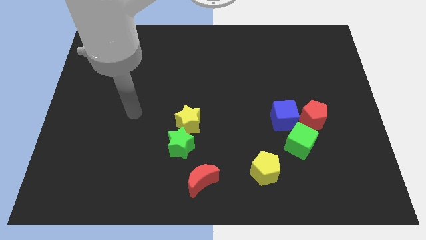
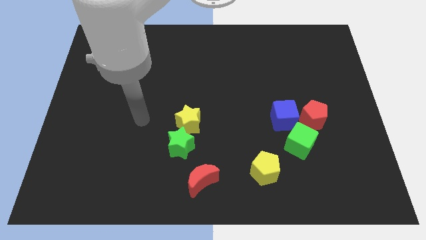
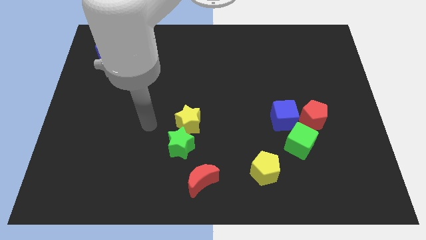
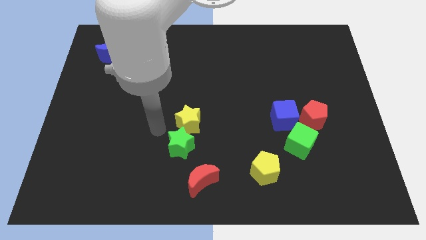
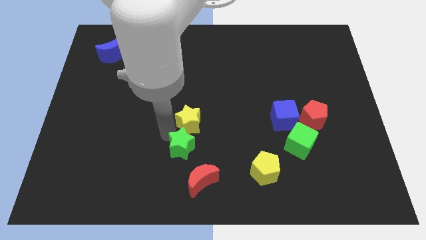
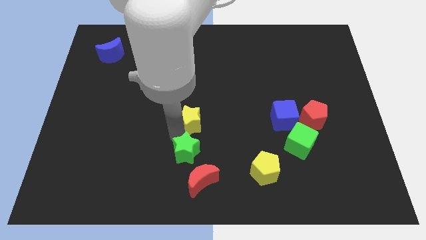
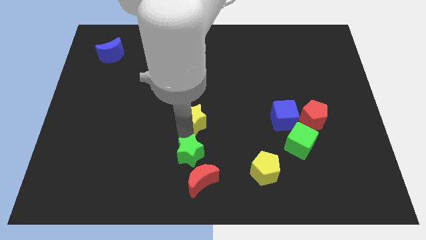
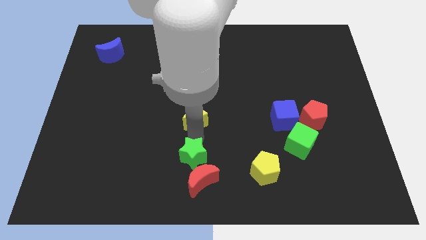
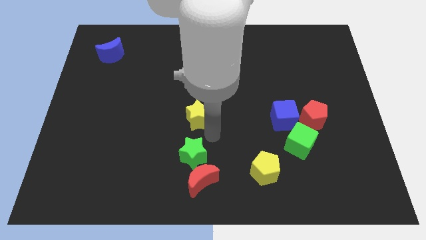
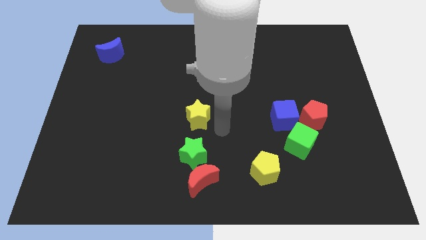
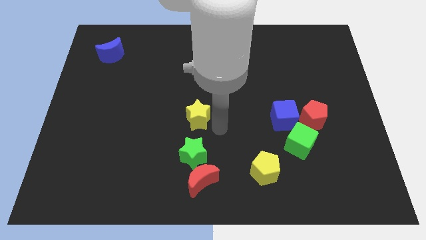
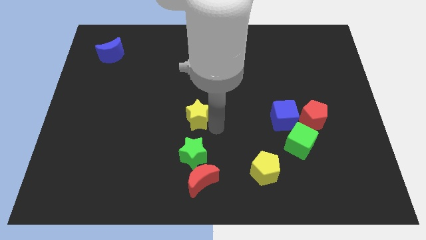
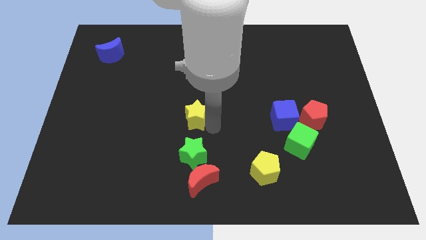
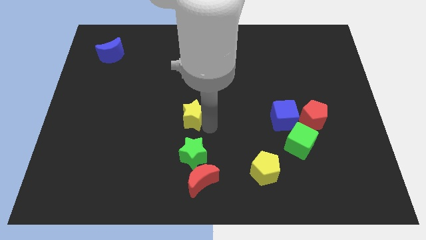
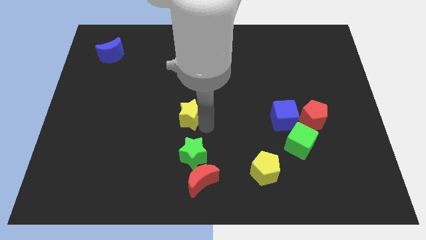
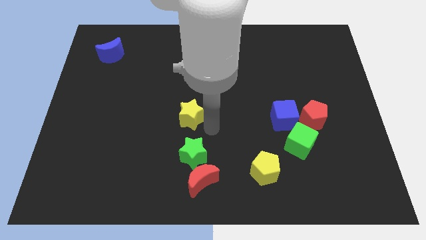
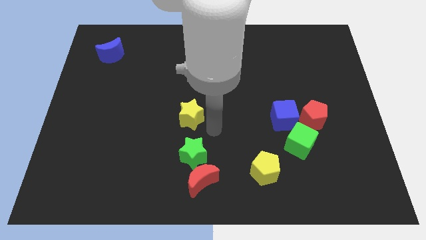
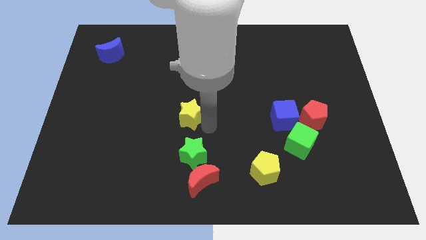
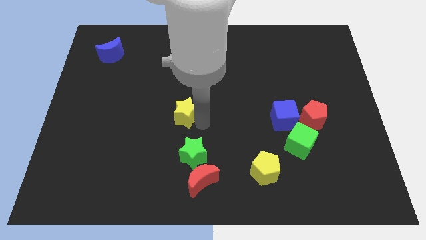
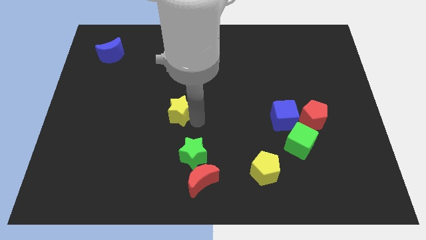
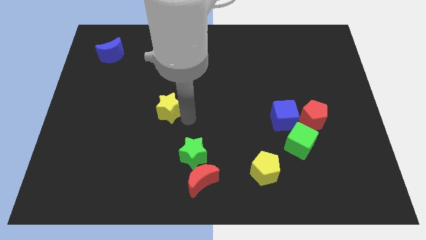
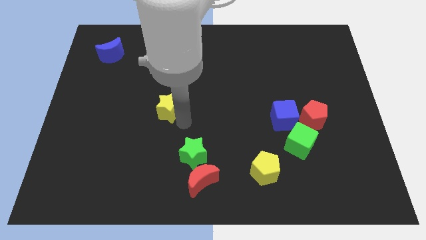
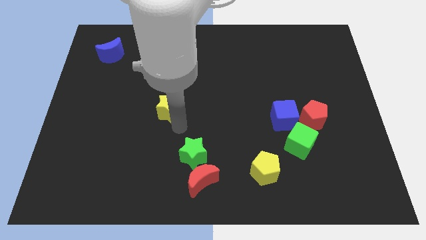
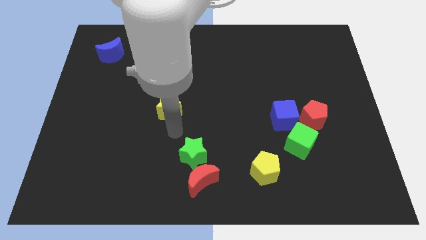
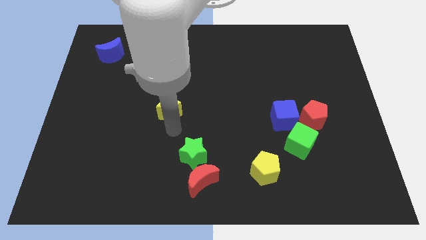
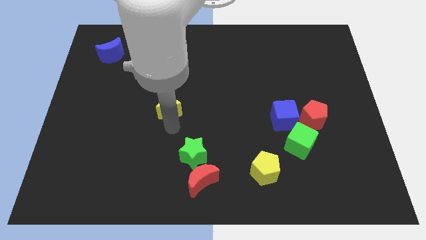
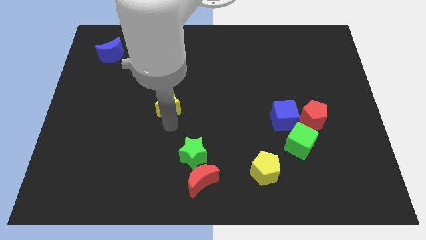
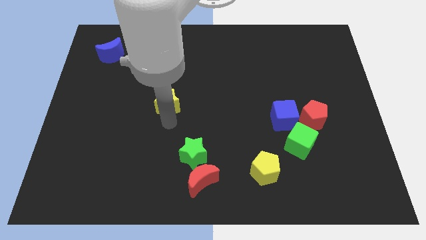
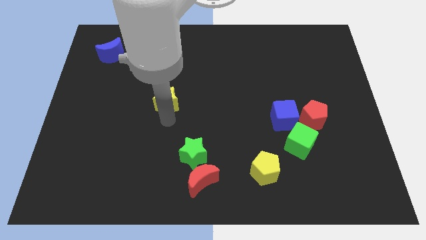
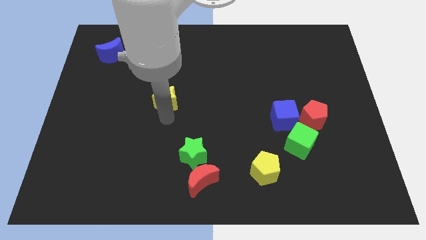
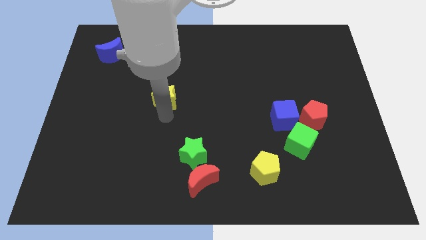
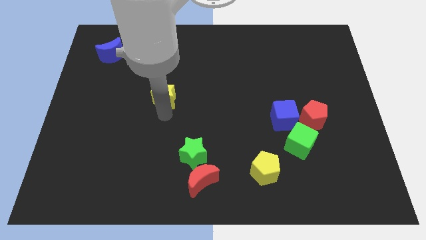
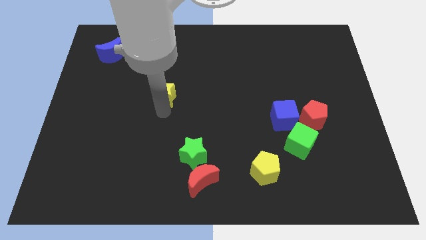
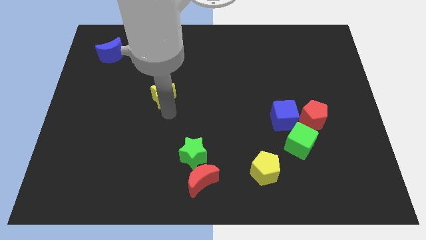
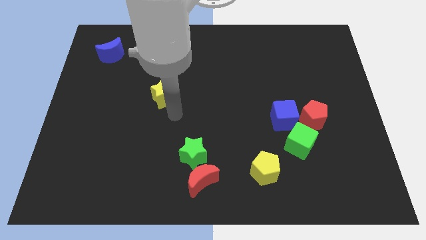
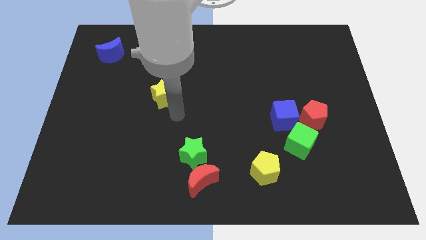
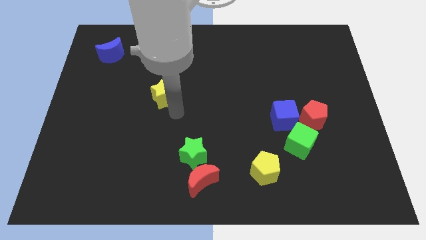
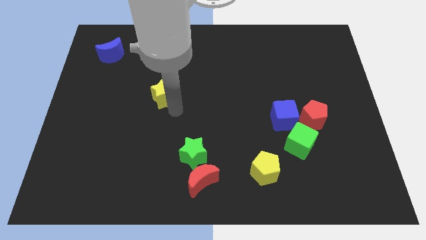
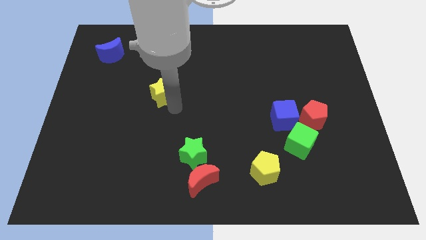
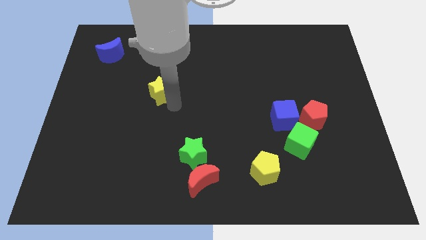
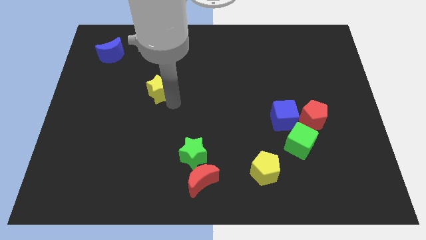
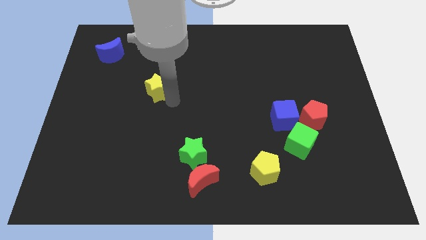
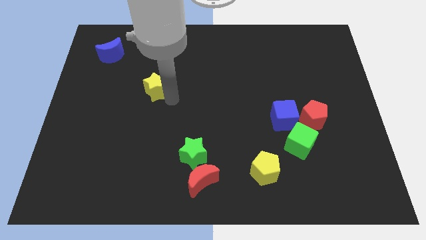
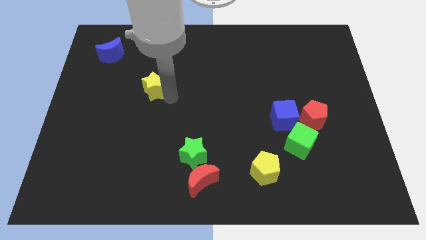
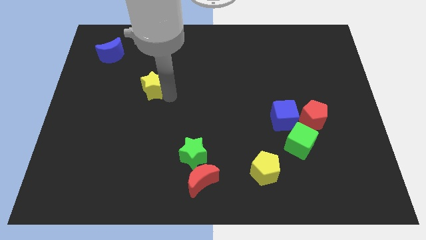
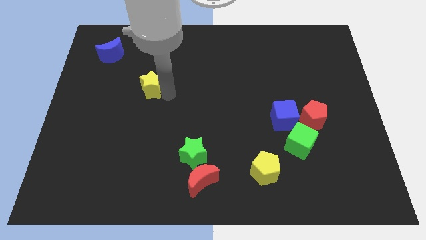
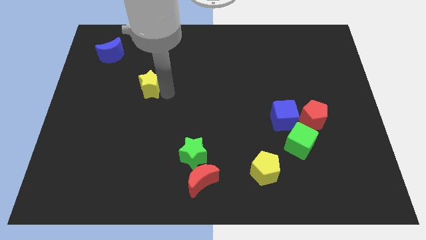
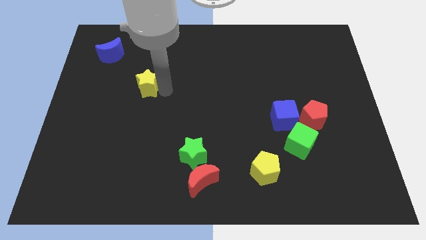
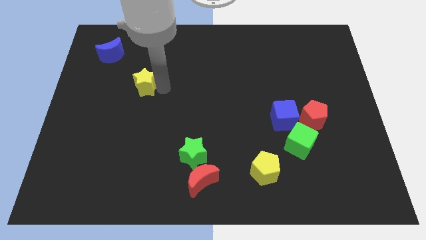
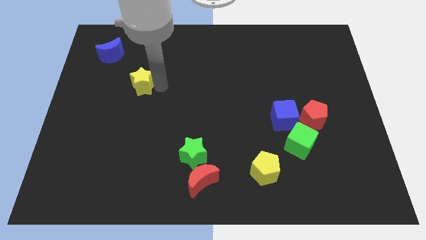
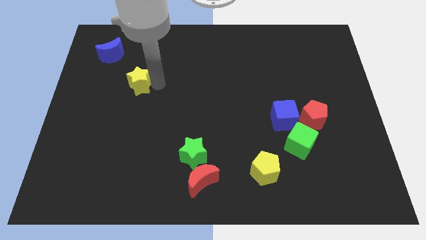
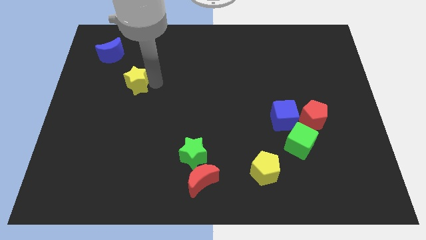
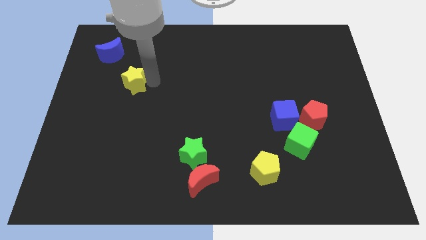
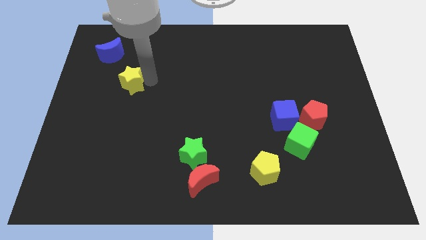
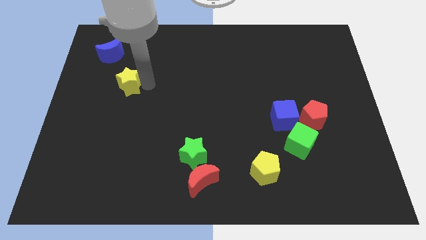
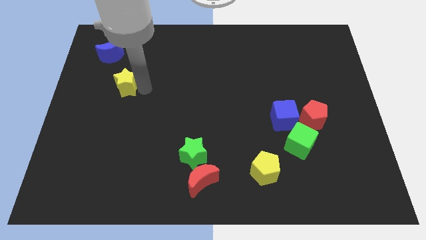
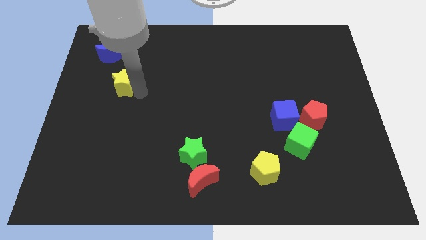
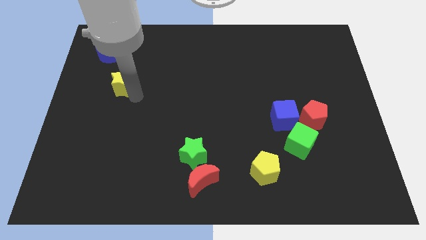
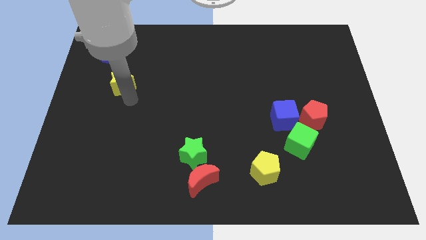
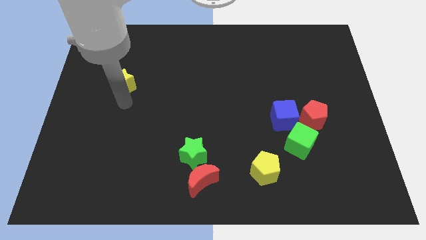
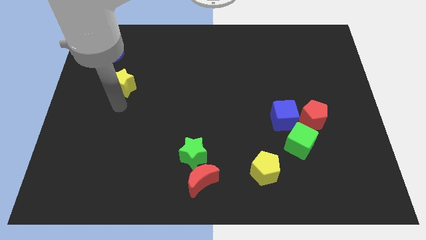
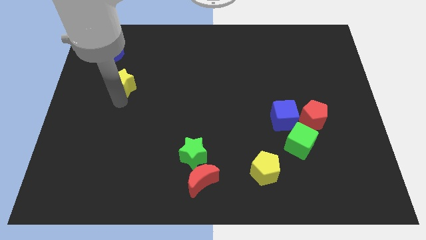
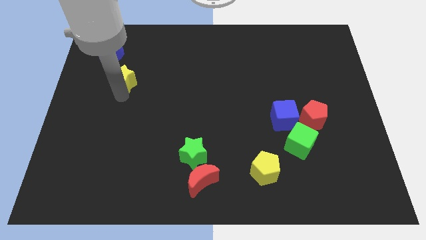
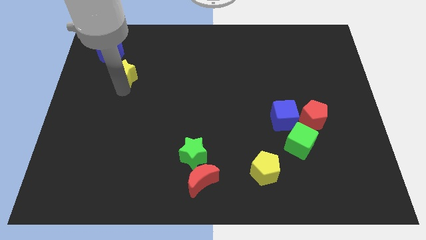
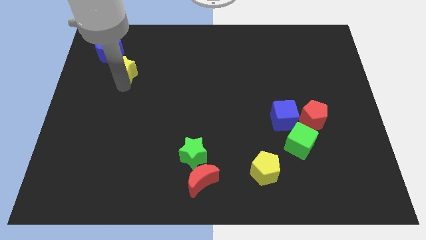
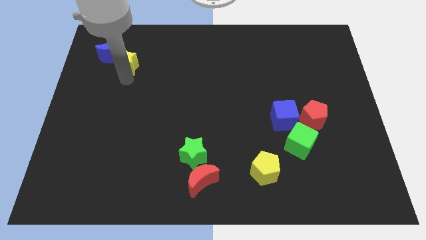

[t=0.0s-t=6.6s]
put the yellow star next to the blue moon
